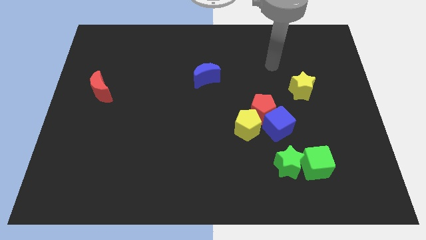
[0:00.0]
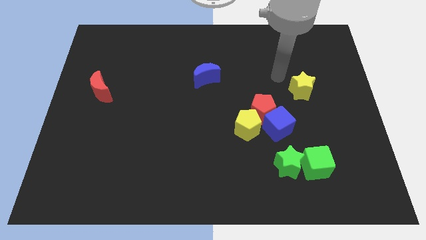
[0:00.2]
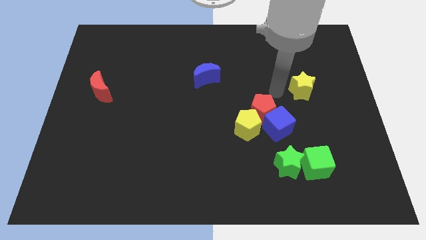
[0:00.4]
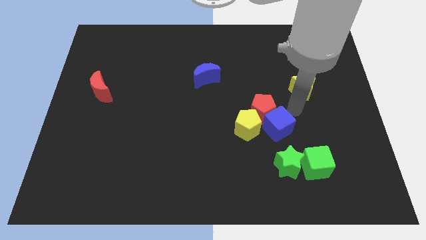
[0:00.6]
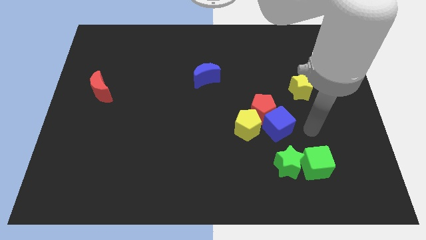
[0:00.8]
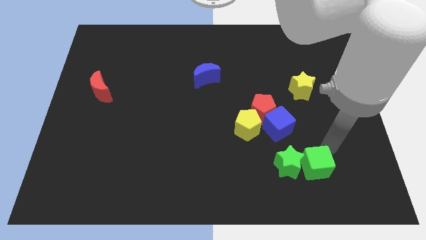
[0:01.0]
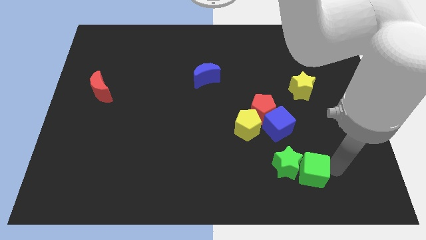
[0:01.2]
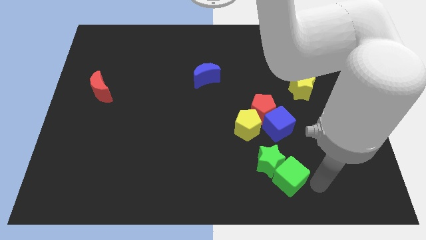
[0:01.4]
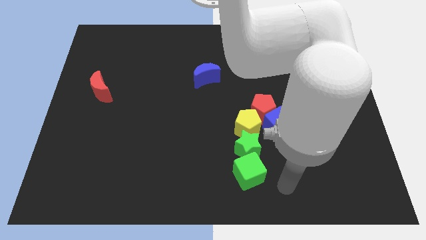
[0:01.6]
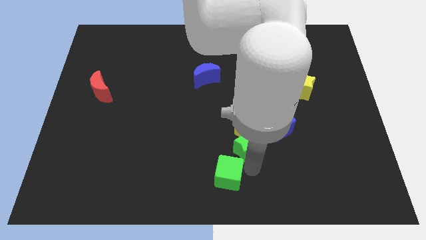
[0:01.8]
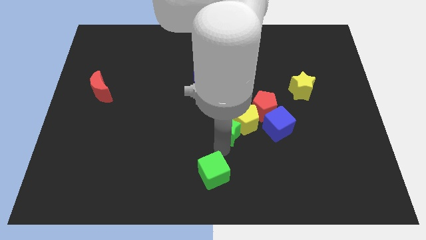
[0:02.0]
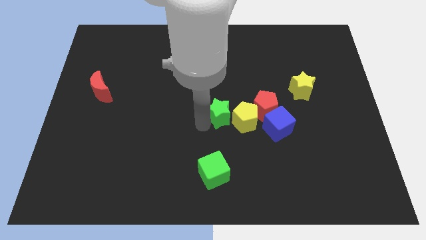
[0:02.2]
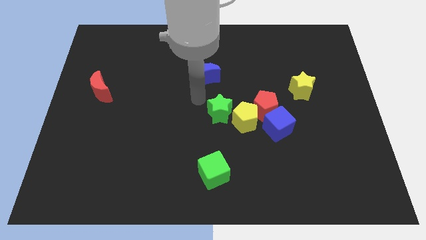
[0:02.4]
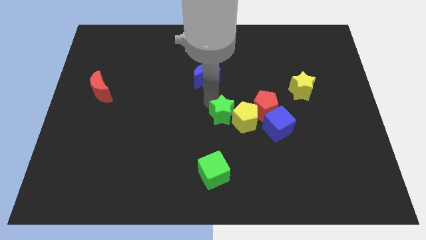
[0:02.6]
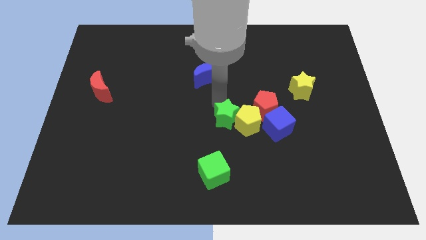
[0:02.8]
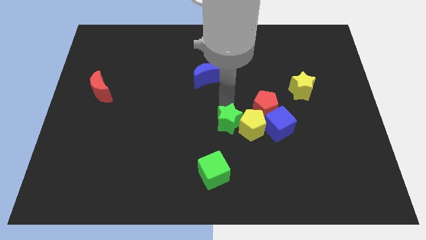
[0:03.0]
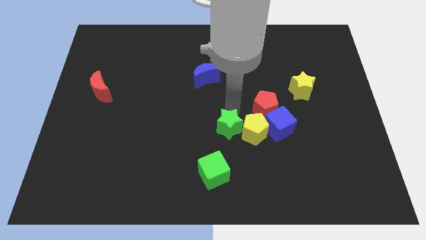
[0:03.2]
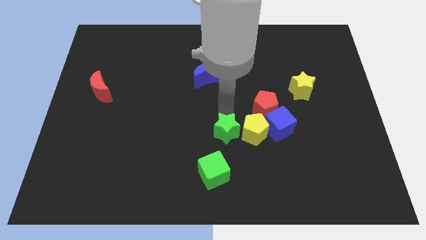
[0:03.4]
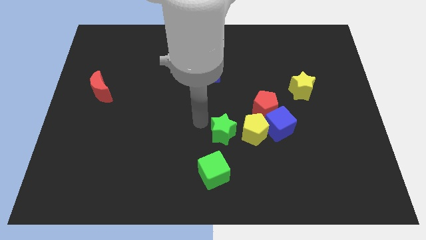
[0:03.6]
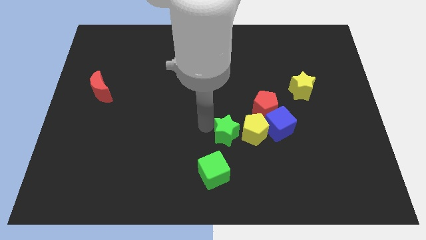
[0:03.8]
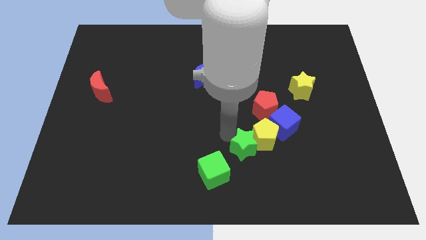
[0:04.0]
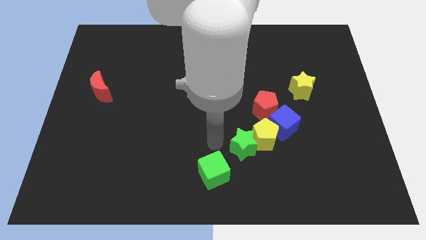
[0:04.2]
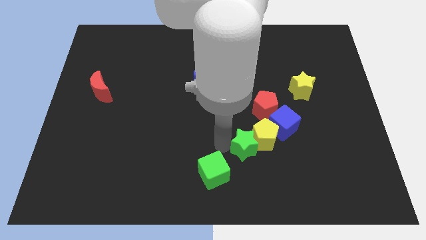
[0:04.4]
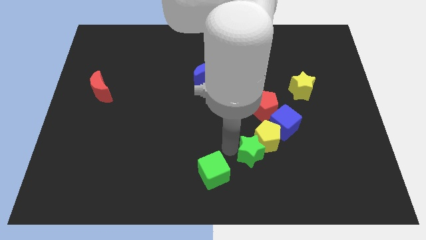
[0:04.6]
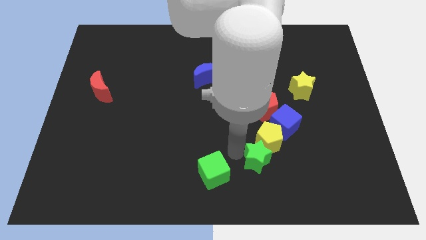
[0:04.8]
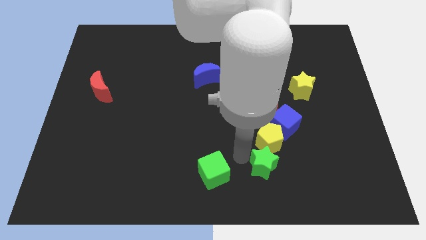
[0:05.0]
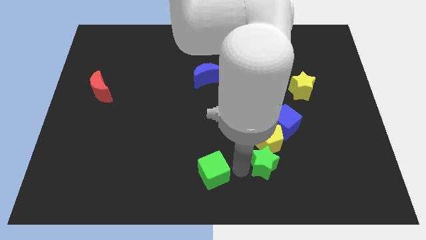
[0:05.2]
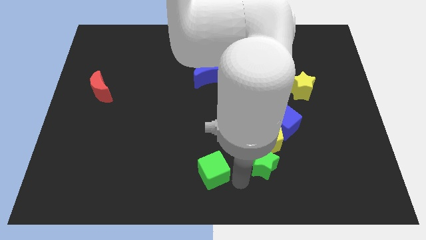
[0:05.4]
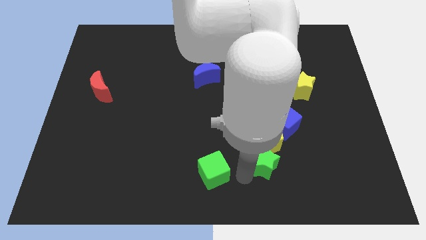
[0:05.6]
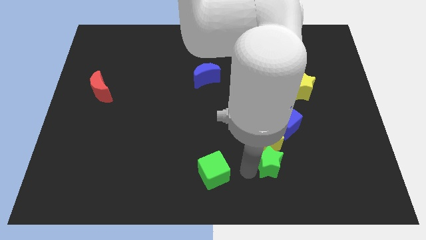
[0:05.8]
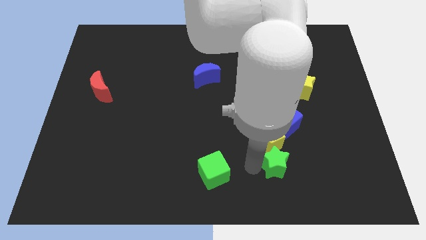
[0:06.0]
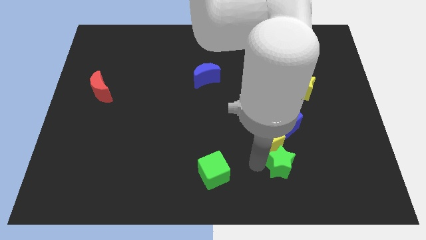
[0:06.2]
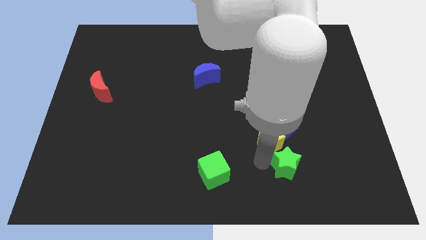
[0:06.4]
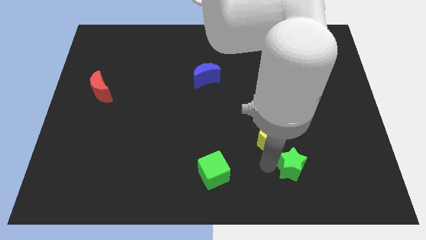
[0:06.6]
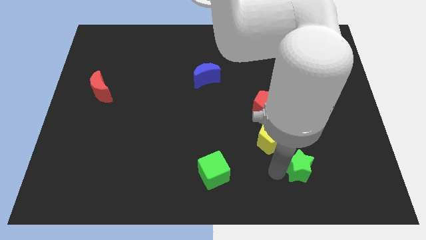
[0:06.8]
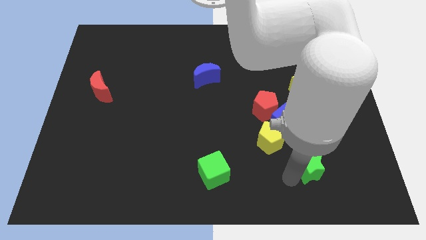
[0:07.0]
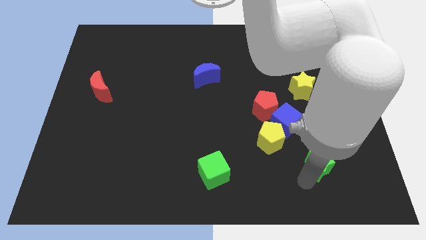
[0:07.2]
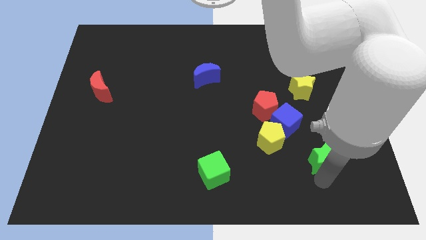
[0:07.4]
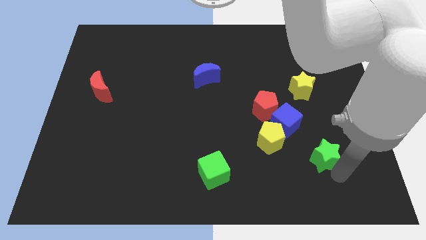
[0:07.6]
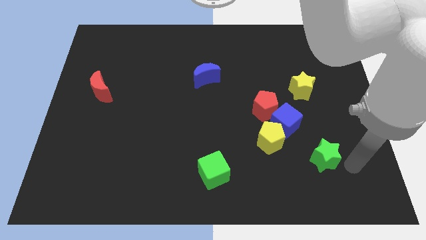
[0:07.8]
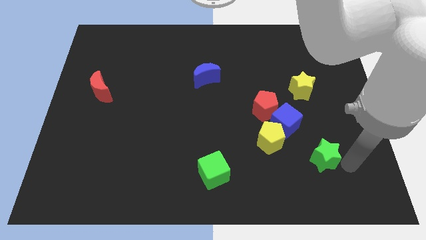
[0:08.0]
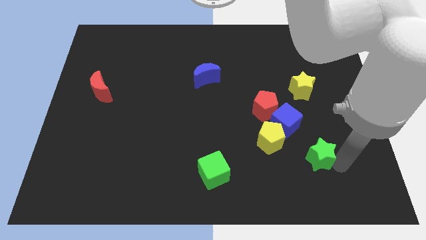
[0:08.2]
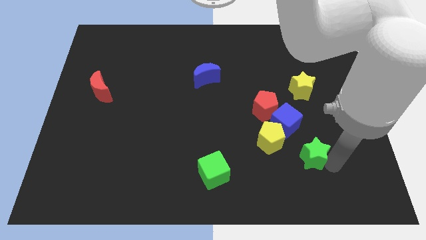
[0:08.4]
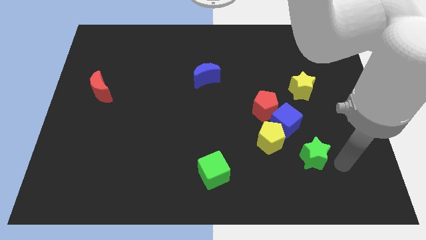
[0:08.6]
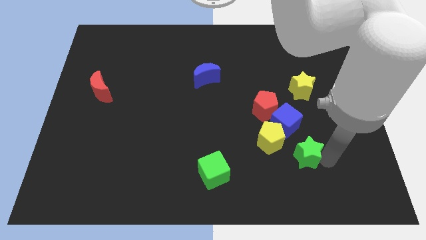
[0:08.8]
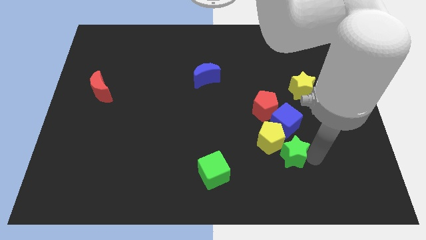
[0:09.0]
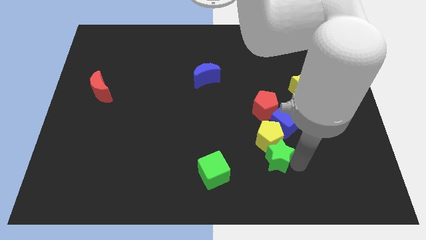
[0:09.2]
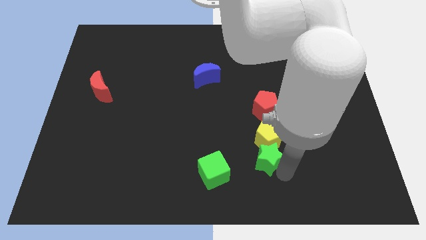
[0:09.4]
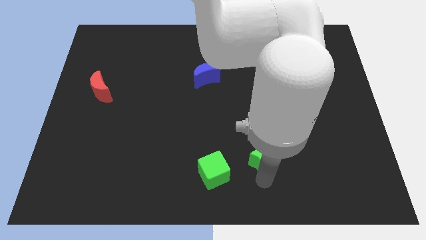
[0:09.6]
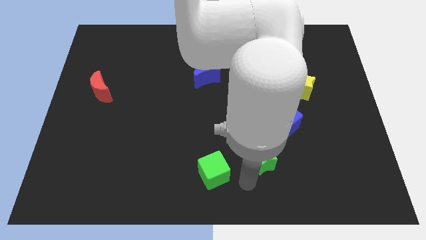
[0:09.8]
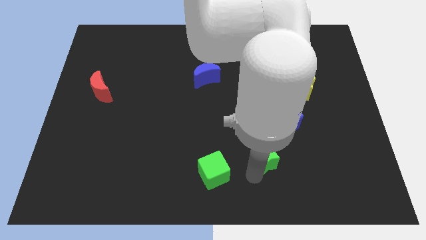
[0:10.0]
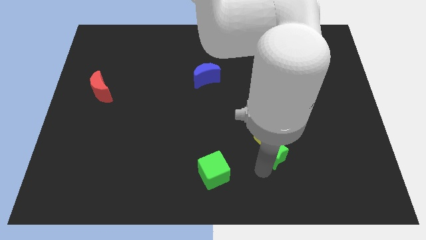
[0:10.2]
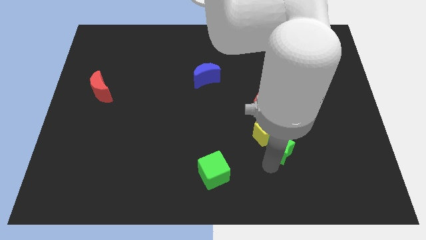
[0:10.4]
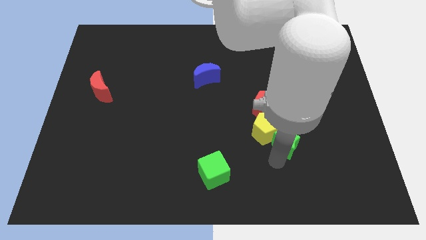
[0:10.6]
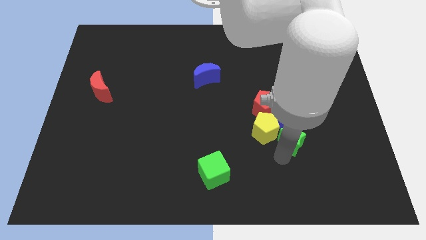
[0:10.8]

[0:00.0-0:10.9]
put the green star towards the blue cube

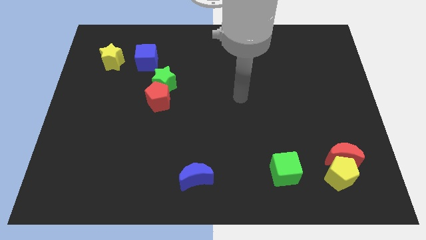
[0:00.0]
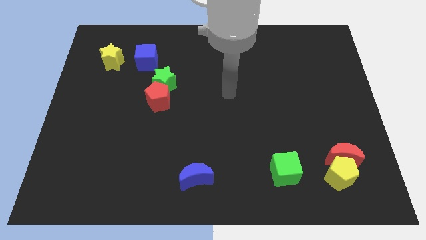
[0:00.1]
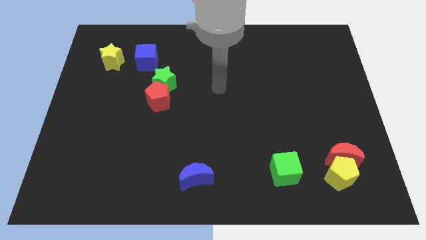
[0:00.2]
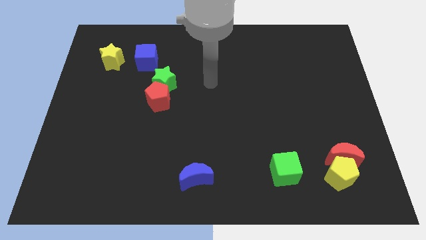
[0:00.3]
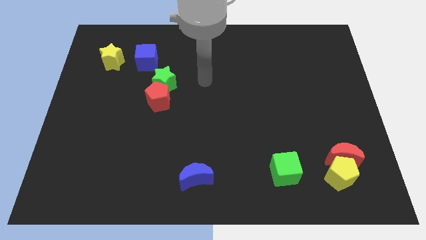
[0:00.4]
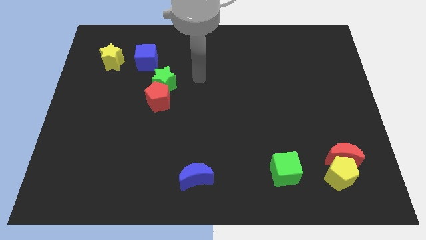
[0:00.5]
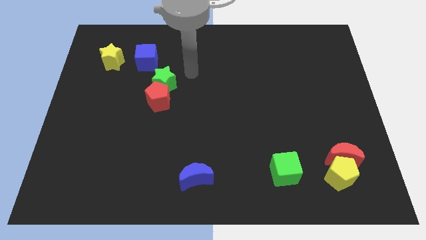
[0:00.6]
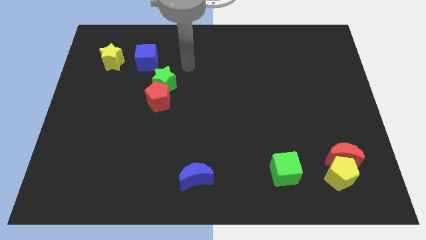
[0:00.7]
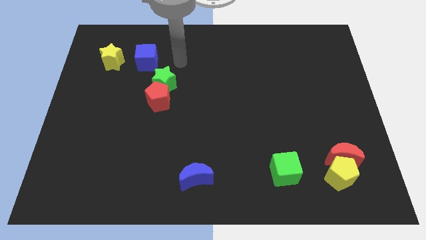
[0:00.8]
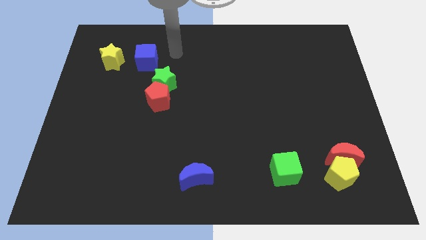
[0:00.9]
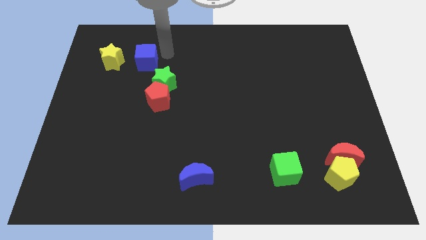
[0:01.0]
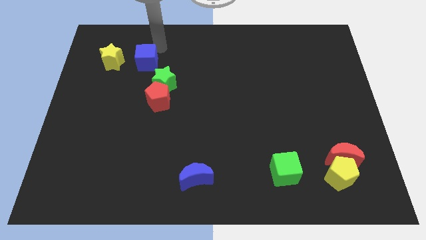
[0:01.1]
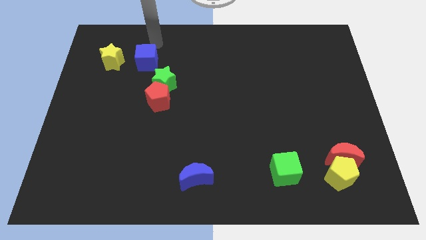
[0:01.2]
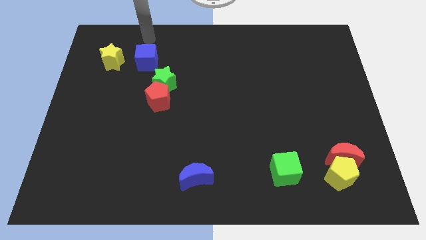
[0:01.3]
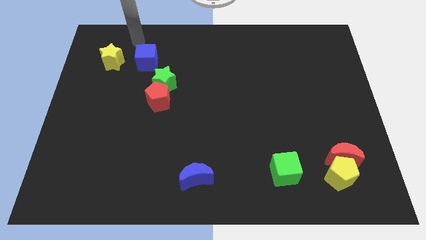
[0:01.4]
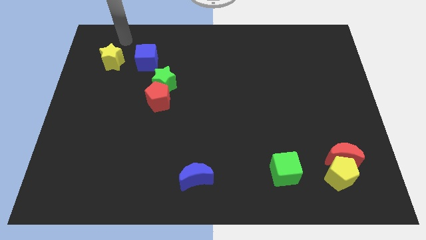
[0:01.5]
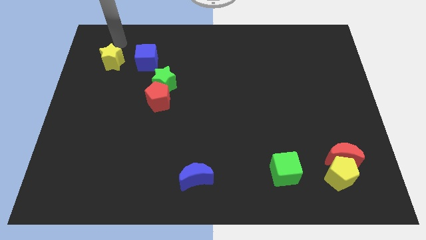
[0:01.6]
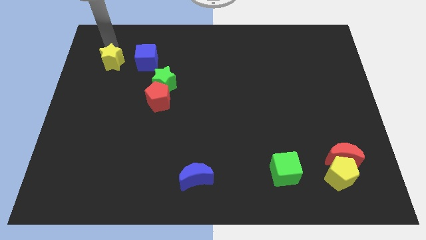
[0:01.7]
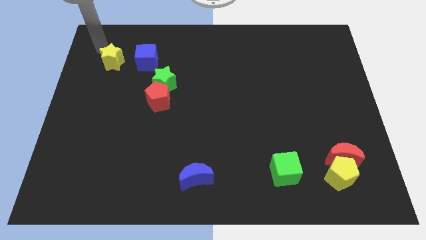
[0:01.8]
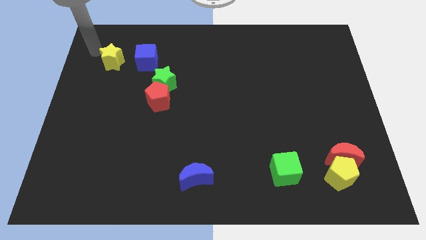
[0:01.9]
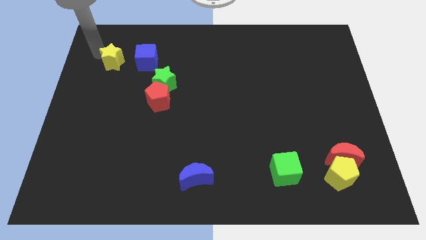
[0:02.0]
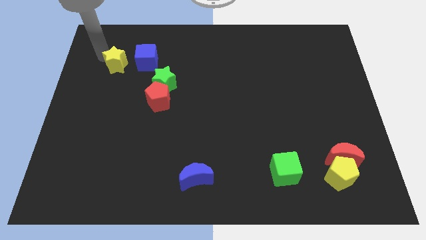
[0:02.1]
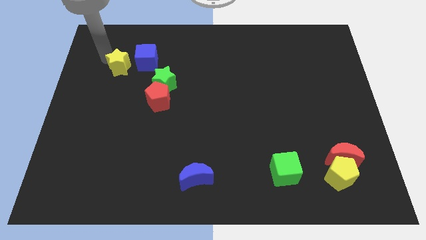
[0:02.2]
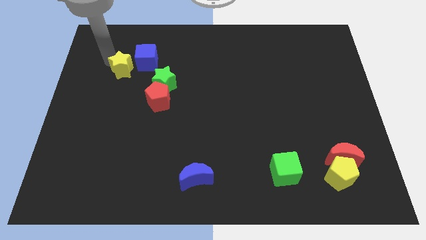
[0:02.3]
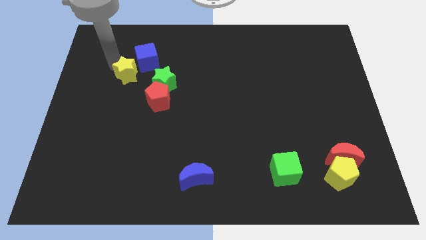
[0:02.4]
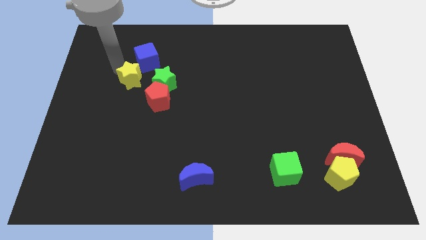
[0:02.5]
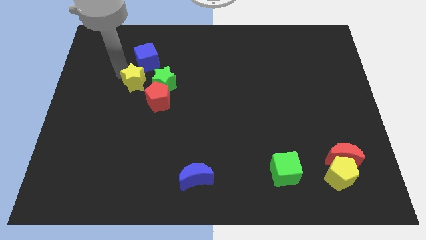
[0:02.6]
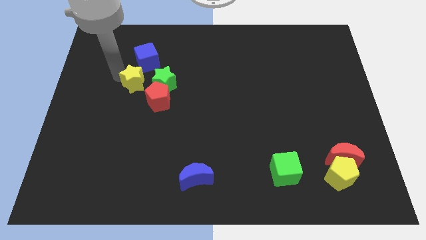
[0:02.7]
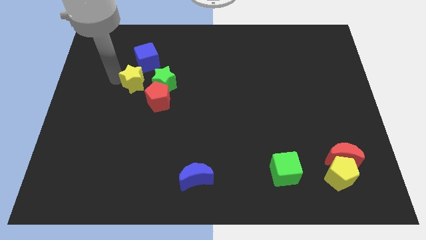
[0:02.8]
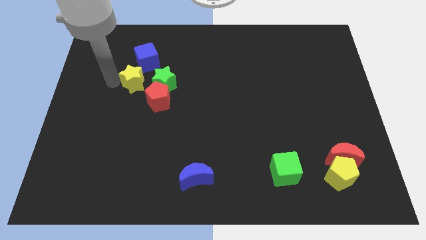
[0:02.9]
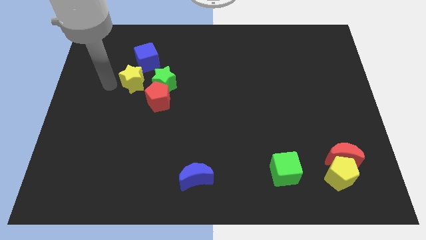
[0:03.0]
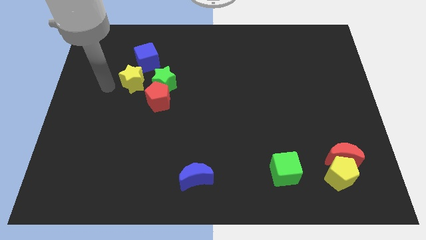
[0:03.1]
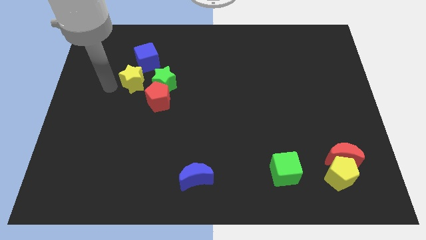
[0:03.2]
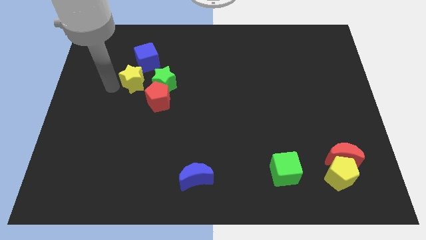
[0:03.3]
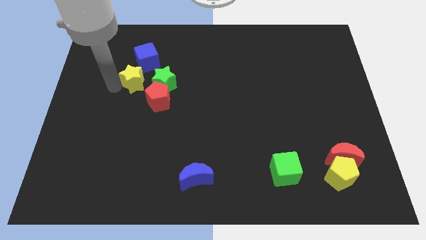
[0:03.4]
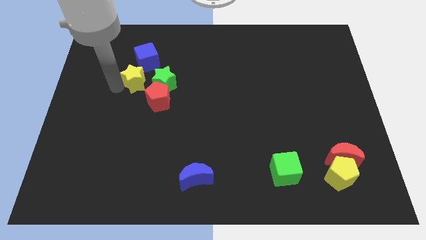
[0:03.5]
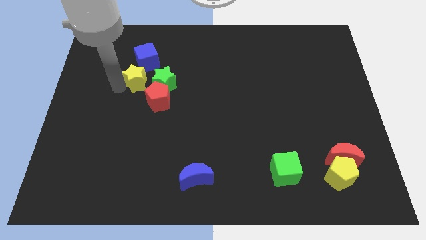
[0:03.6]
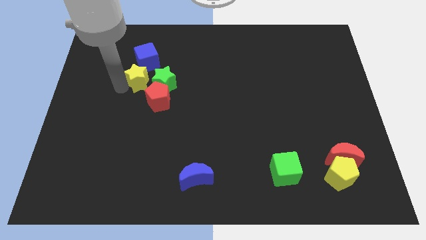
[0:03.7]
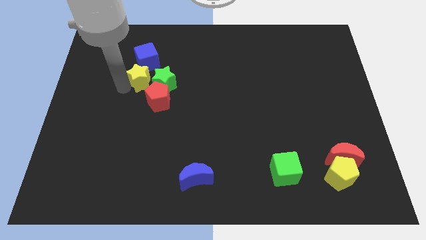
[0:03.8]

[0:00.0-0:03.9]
slide the yellow star towards the green star
